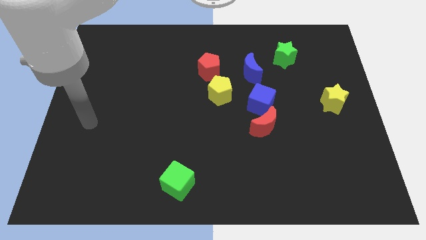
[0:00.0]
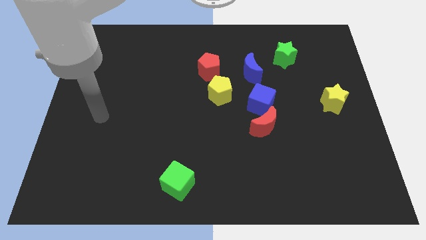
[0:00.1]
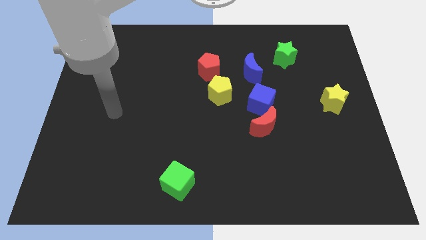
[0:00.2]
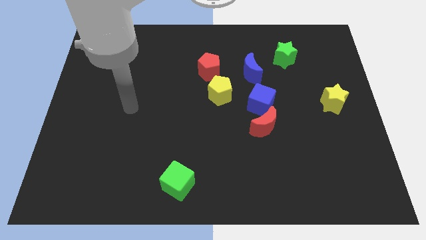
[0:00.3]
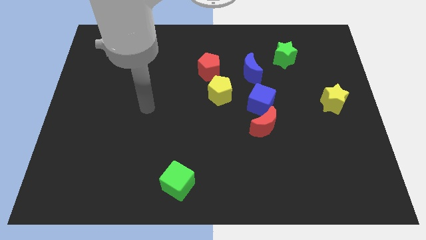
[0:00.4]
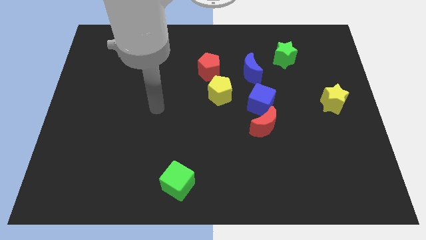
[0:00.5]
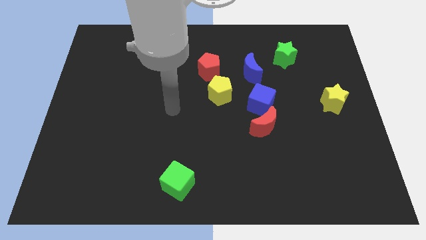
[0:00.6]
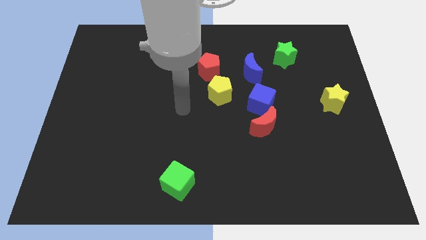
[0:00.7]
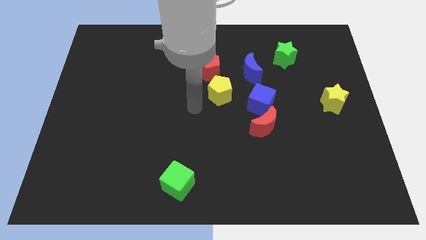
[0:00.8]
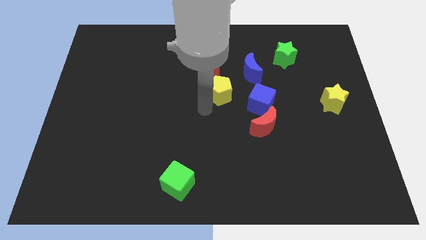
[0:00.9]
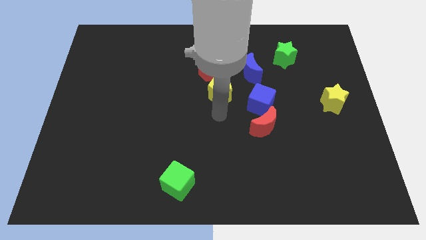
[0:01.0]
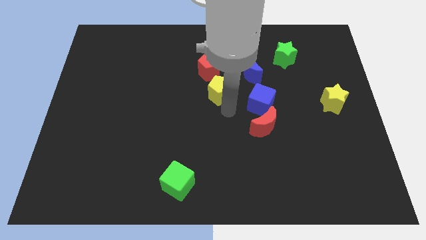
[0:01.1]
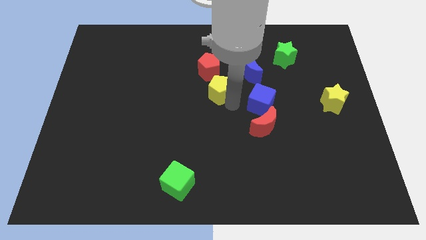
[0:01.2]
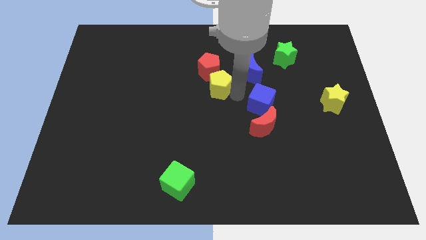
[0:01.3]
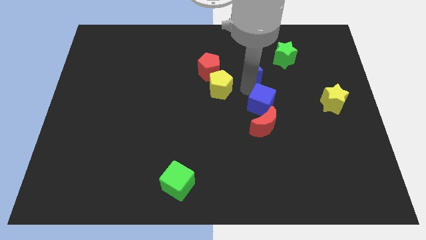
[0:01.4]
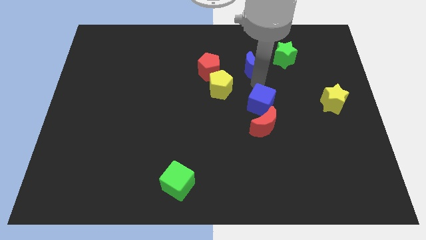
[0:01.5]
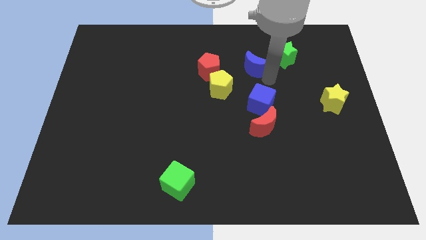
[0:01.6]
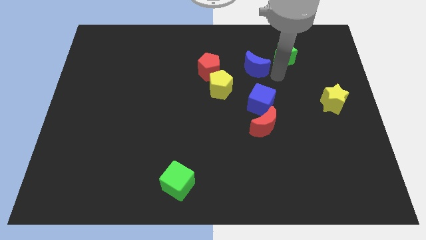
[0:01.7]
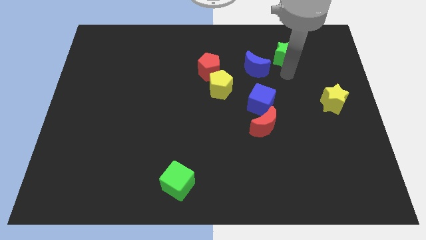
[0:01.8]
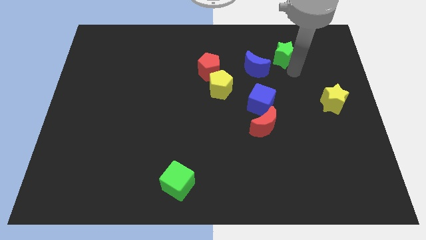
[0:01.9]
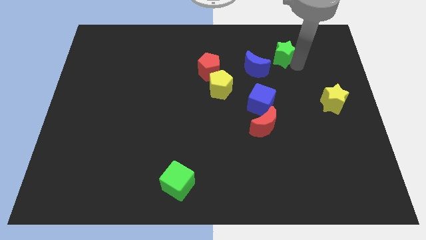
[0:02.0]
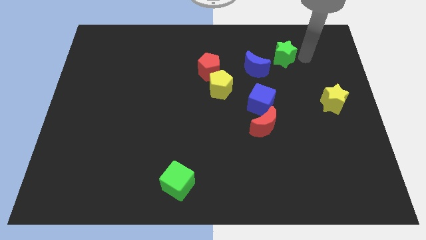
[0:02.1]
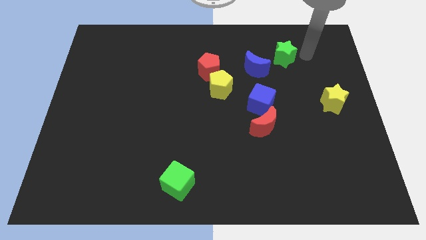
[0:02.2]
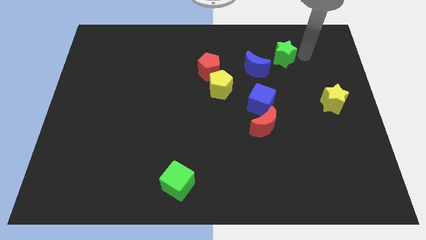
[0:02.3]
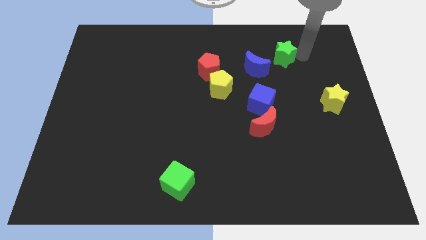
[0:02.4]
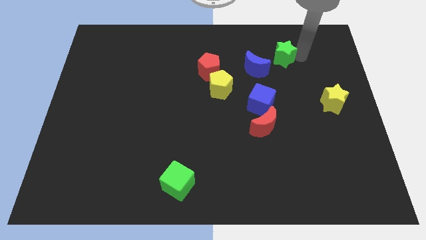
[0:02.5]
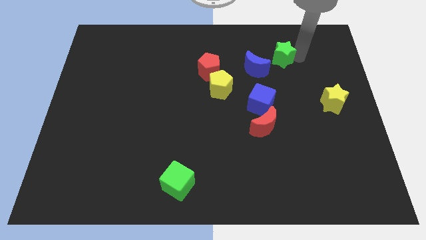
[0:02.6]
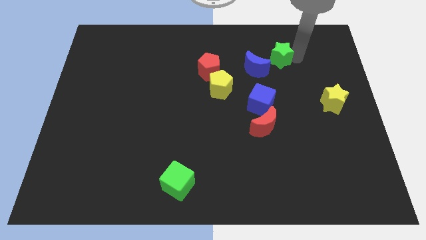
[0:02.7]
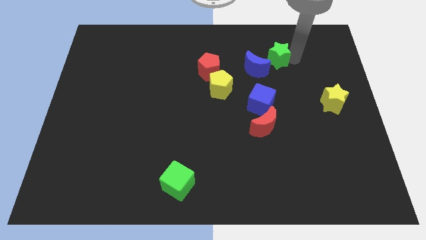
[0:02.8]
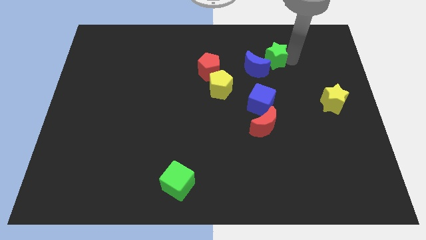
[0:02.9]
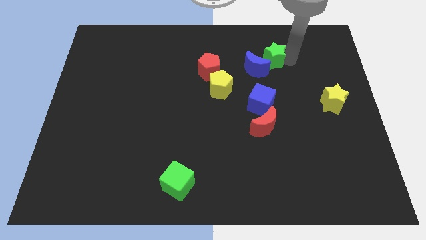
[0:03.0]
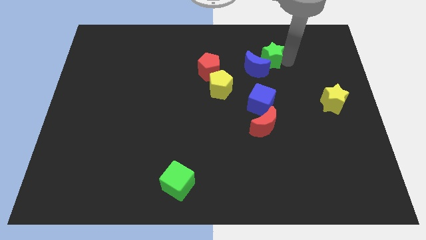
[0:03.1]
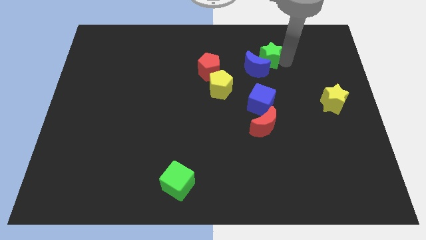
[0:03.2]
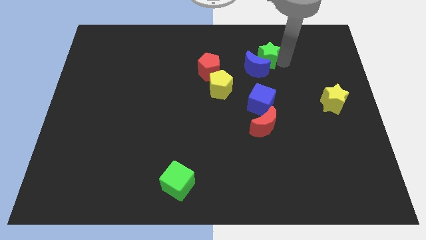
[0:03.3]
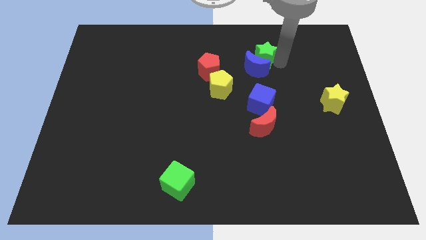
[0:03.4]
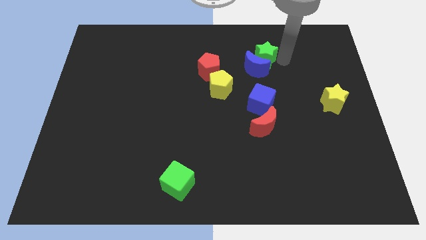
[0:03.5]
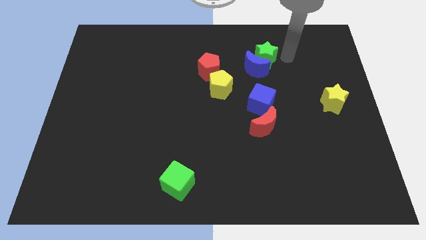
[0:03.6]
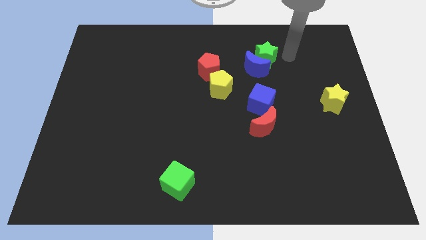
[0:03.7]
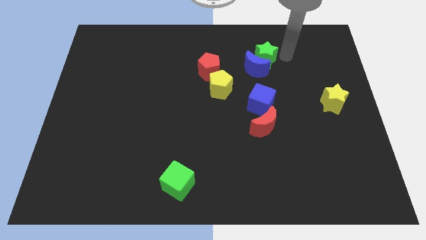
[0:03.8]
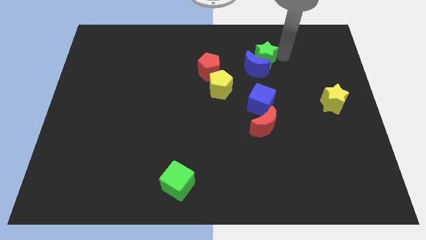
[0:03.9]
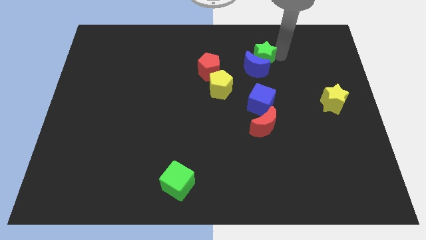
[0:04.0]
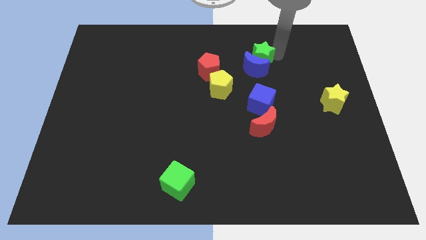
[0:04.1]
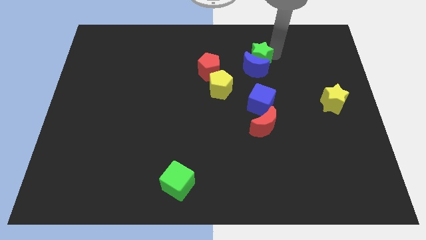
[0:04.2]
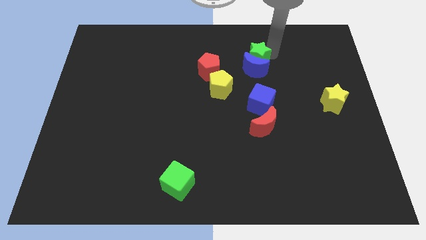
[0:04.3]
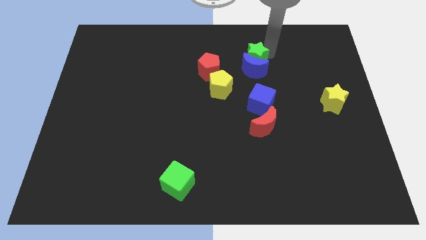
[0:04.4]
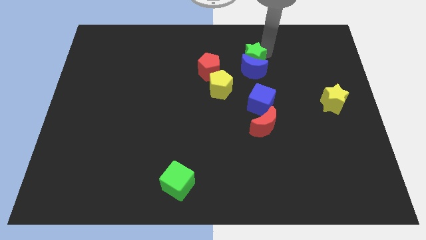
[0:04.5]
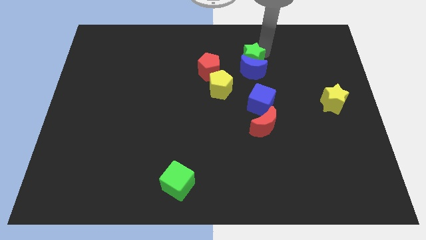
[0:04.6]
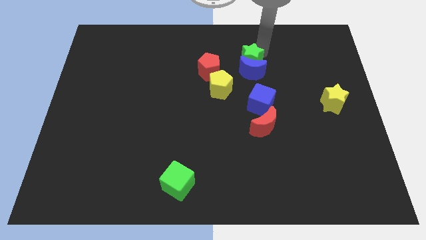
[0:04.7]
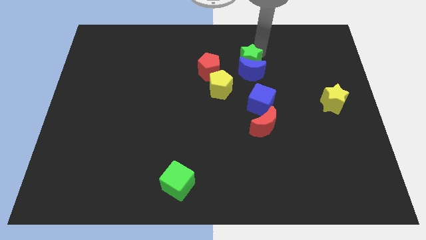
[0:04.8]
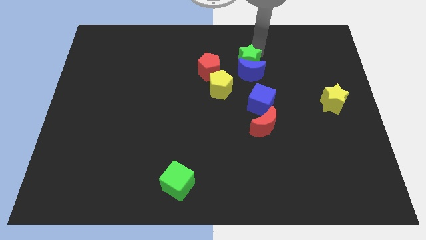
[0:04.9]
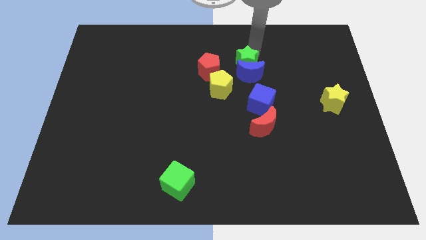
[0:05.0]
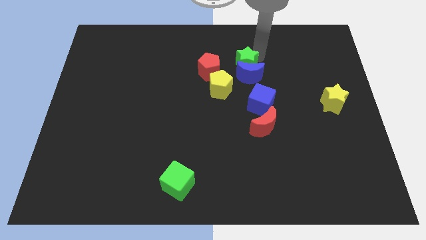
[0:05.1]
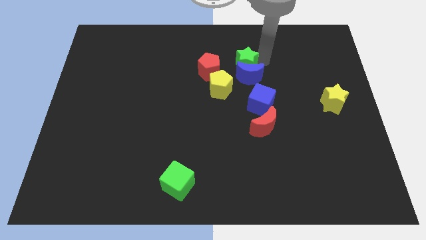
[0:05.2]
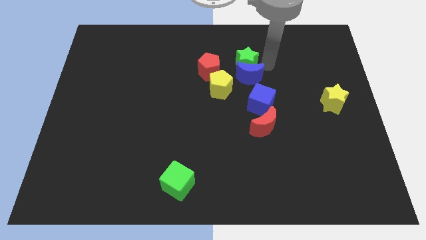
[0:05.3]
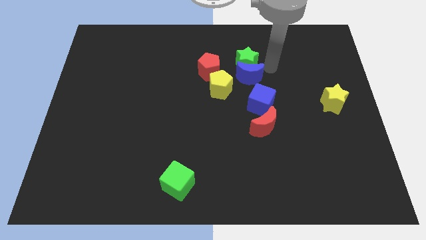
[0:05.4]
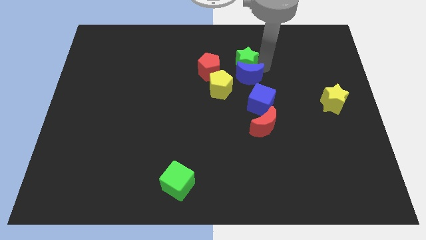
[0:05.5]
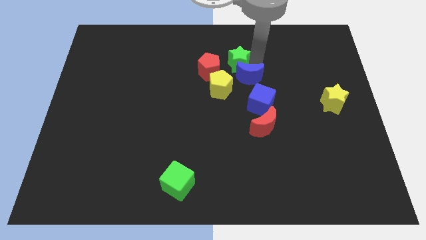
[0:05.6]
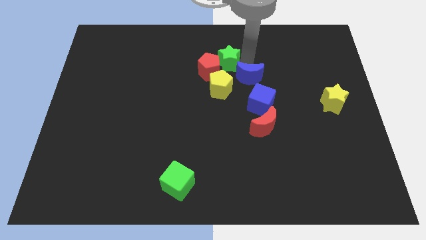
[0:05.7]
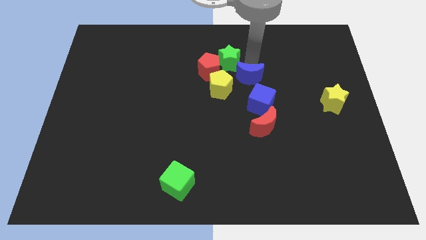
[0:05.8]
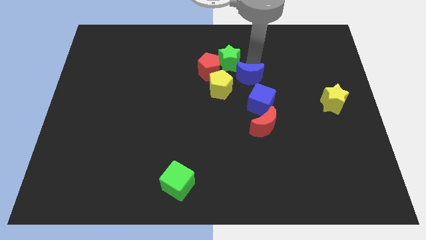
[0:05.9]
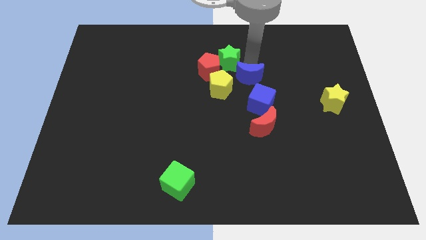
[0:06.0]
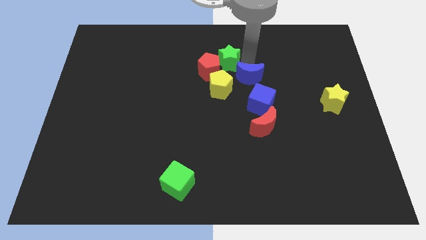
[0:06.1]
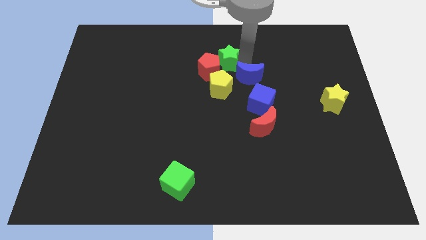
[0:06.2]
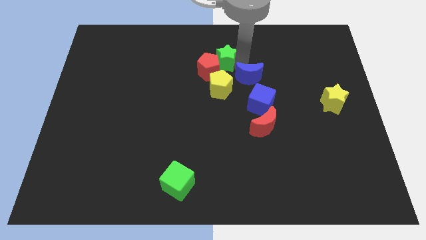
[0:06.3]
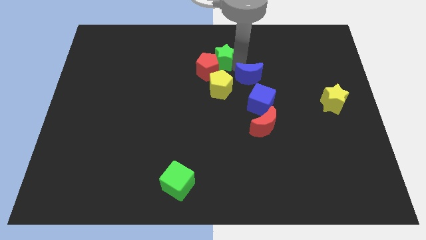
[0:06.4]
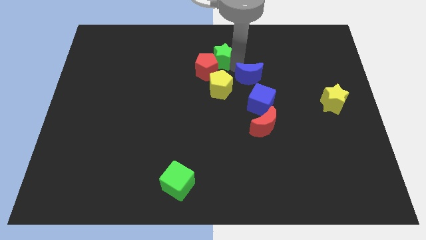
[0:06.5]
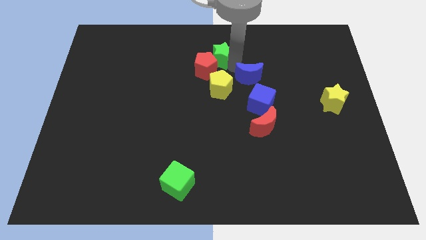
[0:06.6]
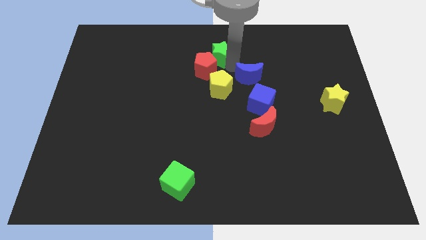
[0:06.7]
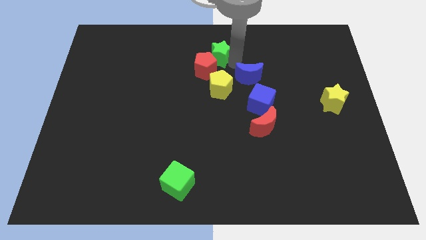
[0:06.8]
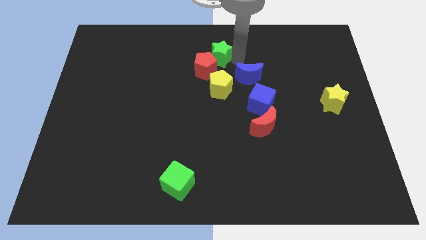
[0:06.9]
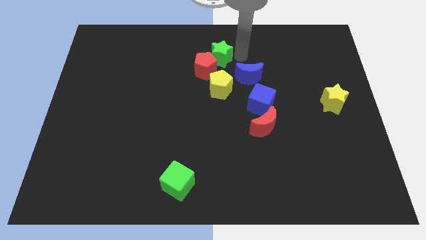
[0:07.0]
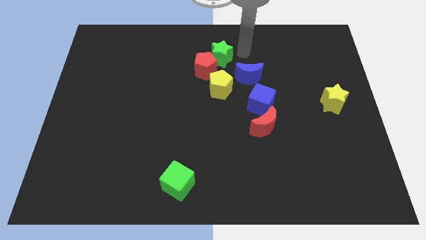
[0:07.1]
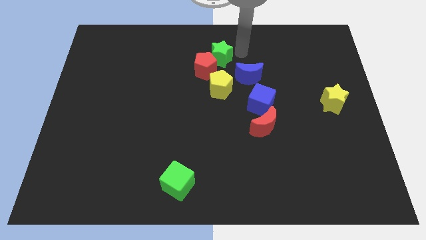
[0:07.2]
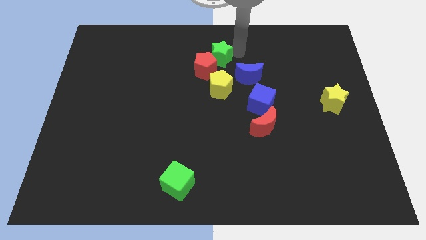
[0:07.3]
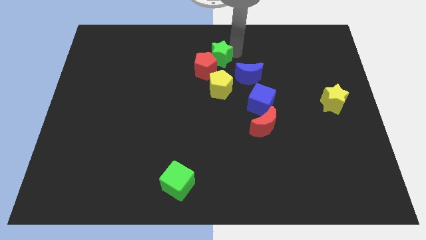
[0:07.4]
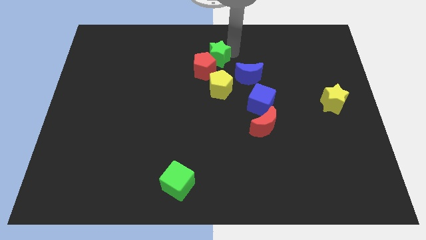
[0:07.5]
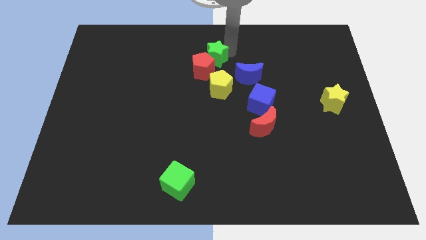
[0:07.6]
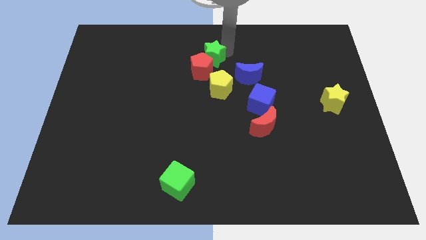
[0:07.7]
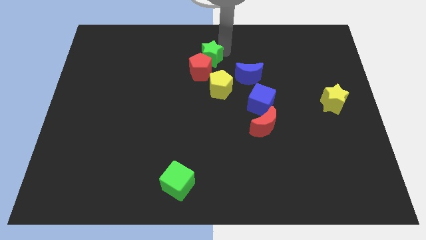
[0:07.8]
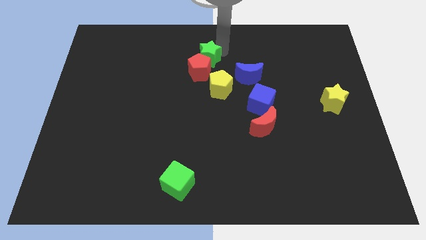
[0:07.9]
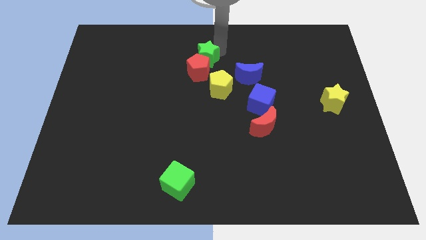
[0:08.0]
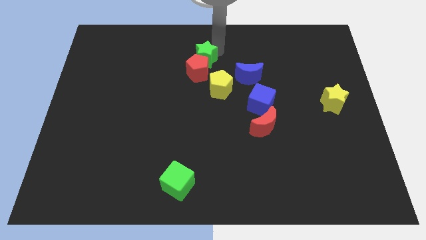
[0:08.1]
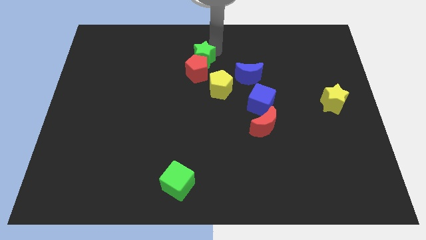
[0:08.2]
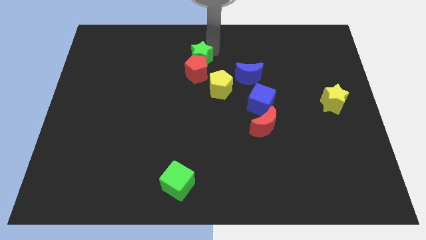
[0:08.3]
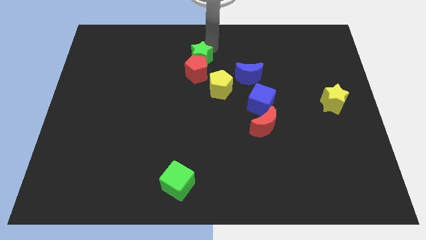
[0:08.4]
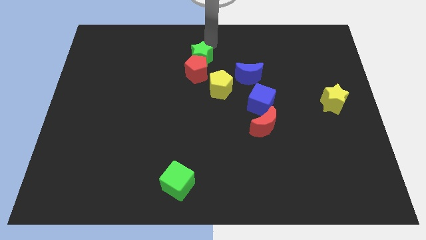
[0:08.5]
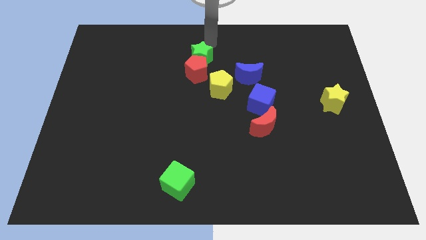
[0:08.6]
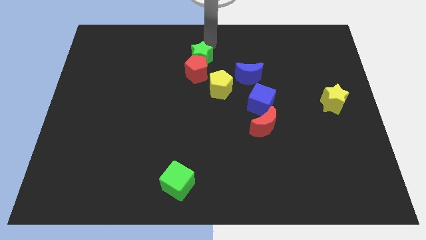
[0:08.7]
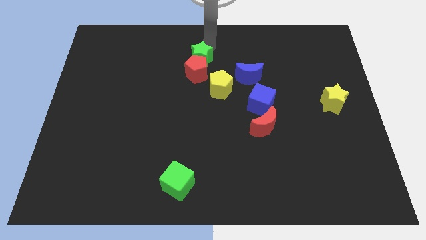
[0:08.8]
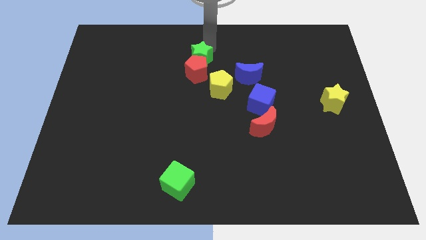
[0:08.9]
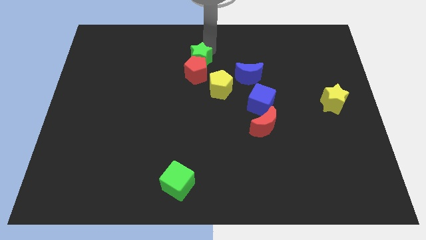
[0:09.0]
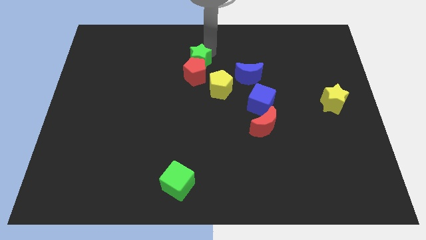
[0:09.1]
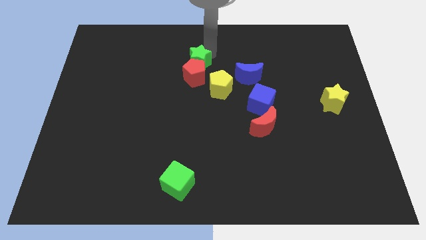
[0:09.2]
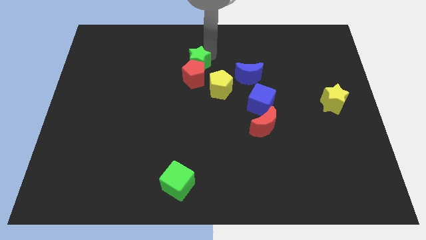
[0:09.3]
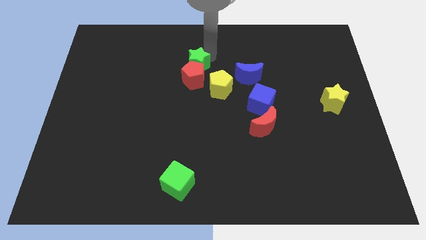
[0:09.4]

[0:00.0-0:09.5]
put the green star to the left side of the blue moon
